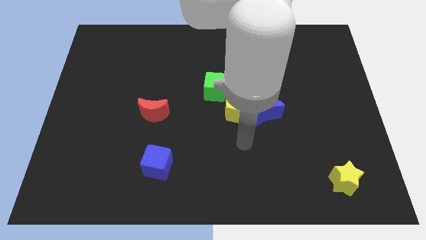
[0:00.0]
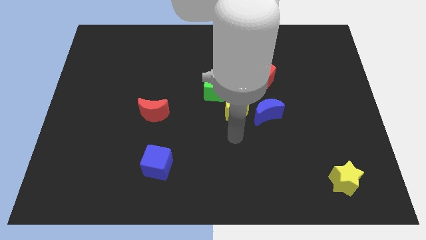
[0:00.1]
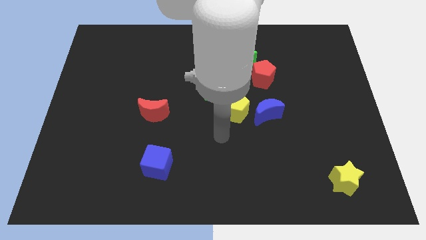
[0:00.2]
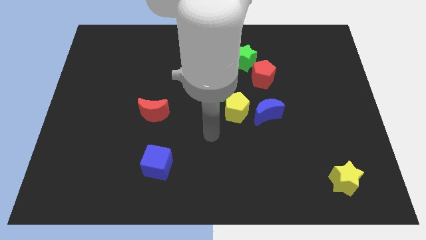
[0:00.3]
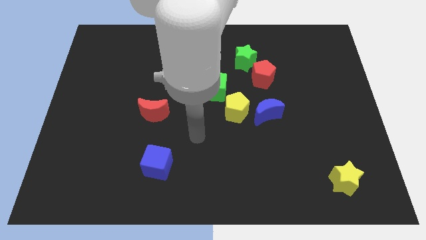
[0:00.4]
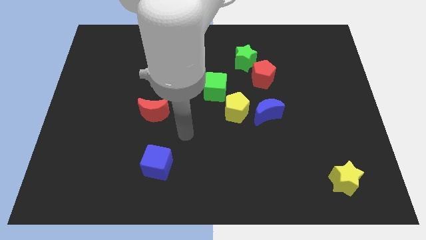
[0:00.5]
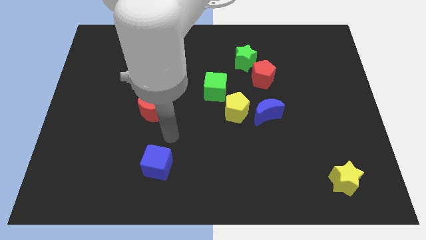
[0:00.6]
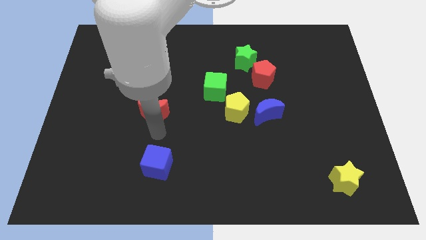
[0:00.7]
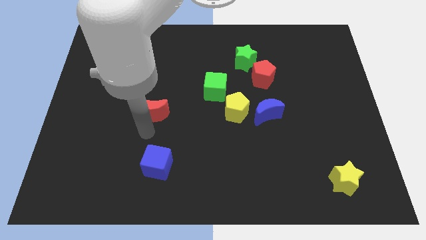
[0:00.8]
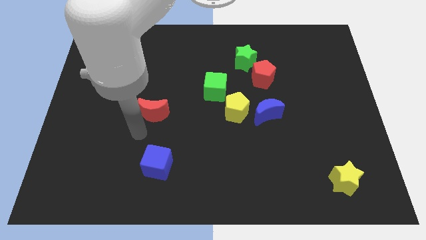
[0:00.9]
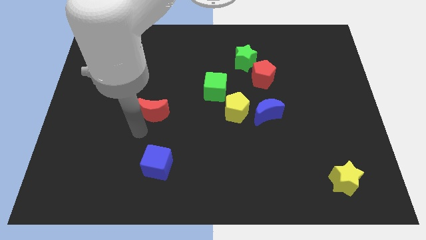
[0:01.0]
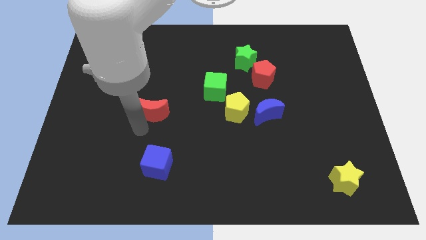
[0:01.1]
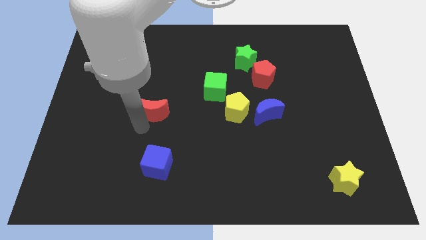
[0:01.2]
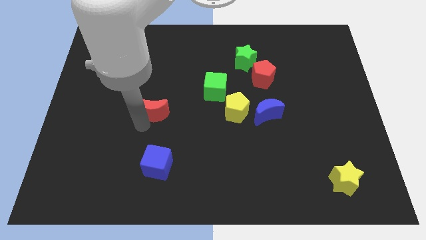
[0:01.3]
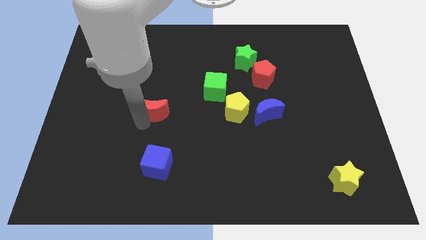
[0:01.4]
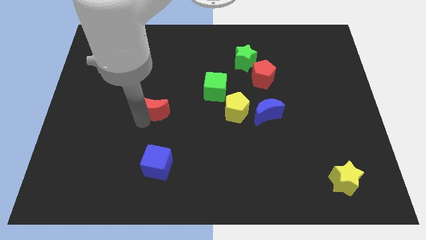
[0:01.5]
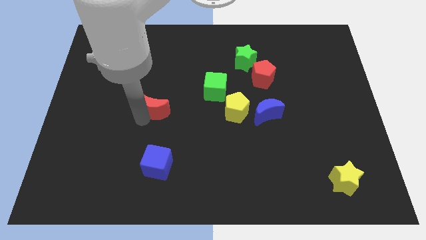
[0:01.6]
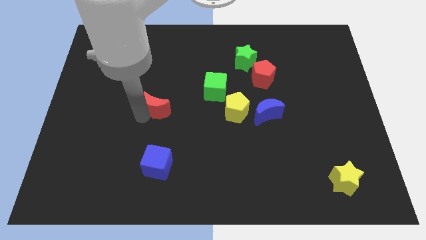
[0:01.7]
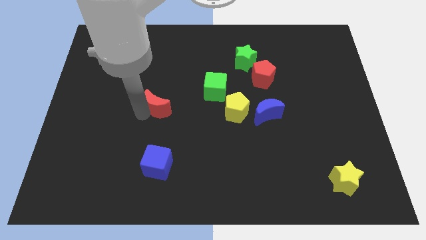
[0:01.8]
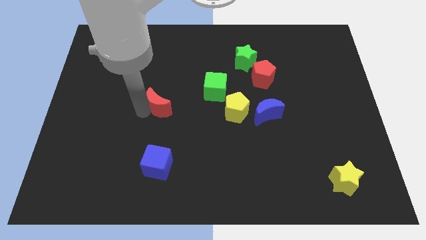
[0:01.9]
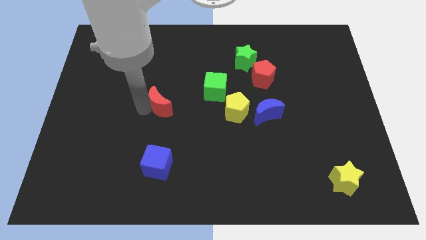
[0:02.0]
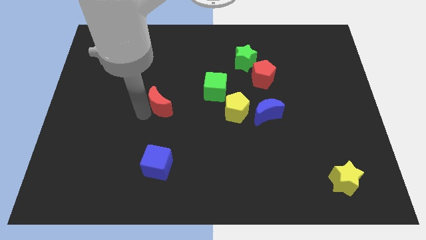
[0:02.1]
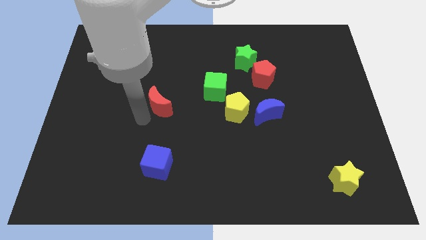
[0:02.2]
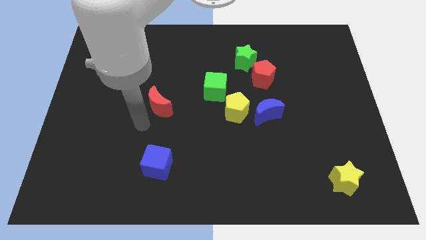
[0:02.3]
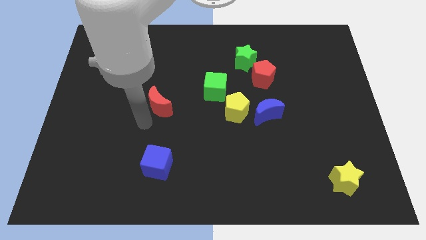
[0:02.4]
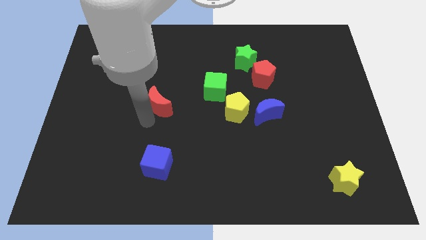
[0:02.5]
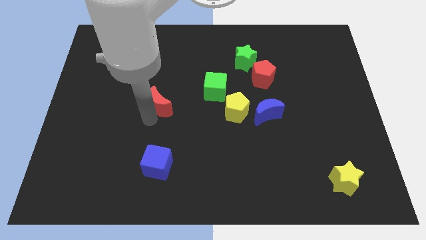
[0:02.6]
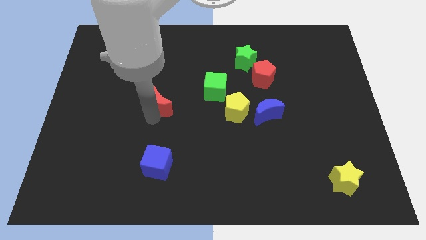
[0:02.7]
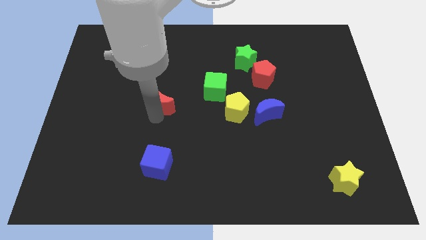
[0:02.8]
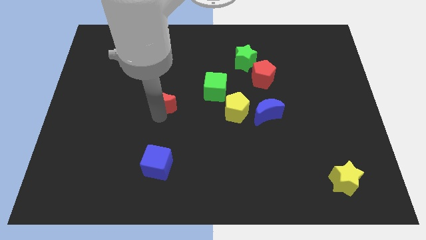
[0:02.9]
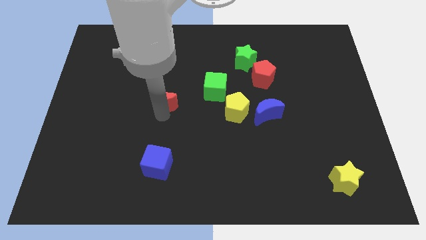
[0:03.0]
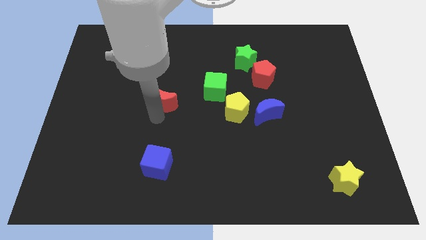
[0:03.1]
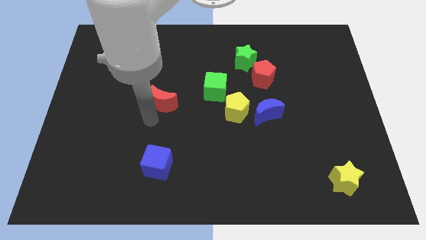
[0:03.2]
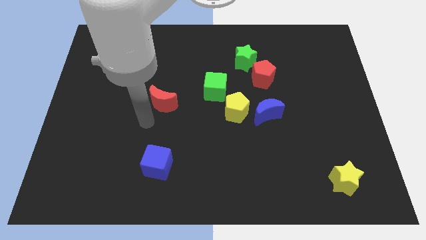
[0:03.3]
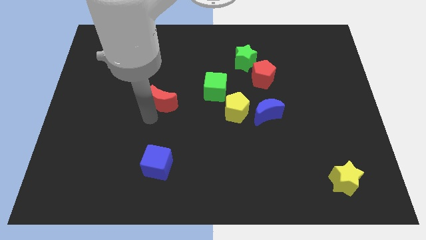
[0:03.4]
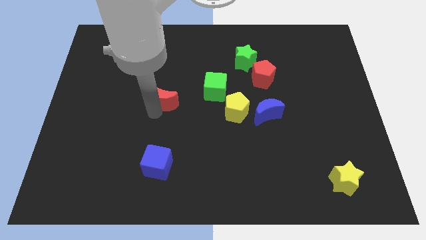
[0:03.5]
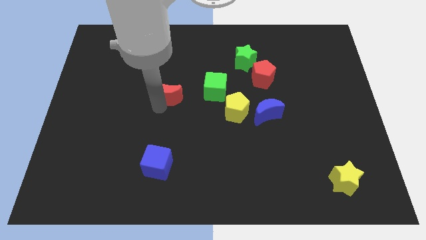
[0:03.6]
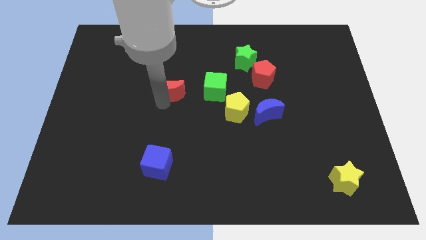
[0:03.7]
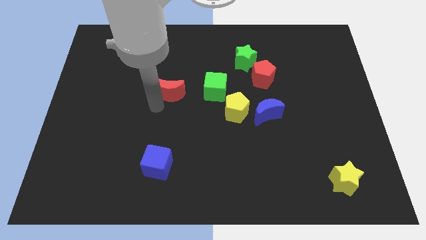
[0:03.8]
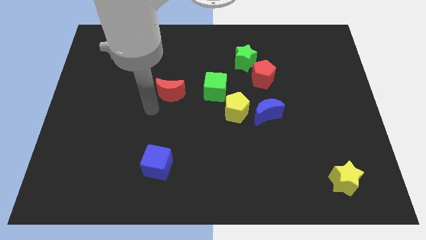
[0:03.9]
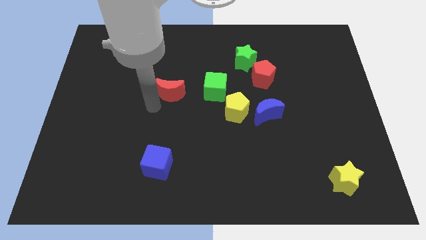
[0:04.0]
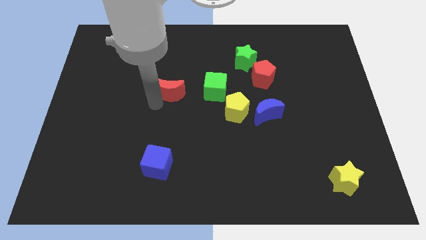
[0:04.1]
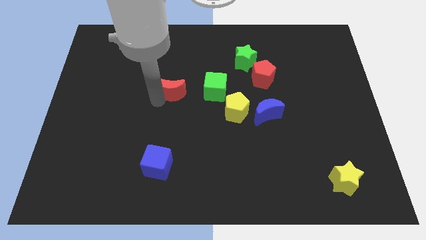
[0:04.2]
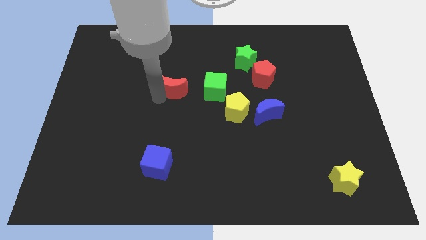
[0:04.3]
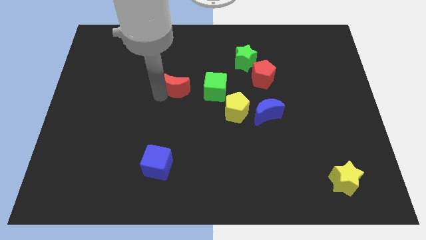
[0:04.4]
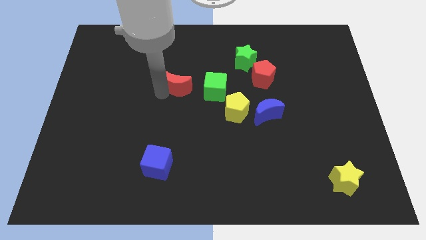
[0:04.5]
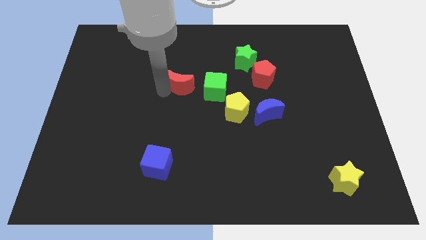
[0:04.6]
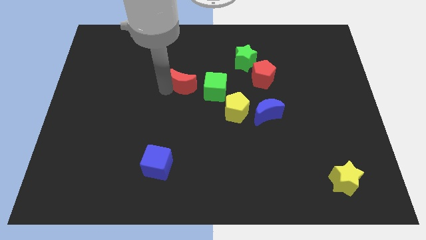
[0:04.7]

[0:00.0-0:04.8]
put the red moon diagonally up and to the left of the green cube

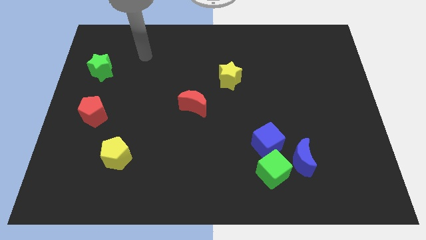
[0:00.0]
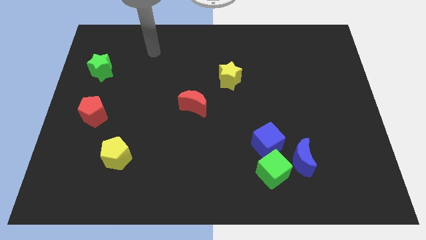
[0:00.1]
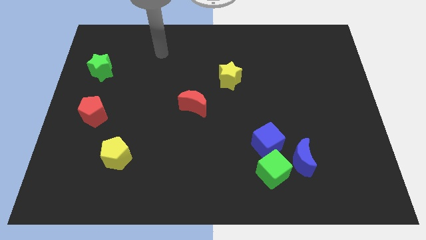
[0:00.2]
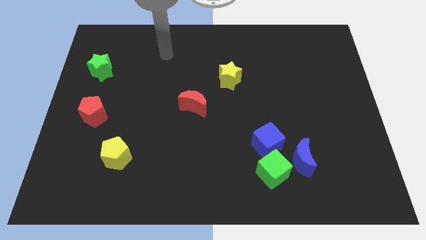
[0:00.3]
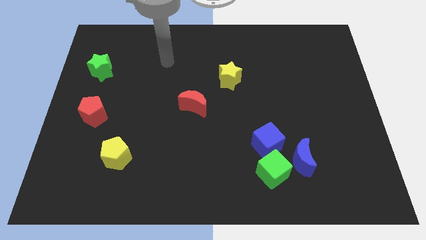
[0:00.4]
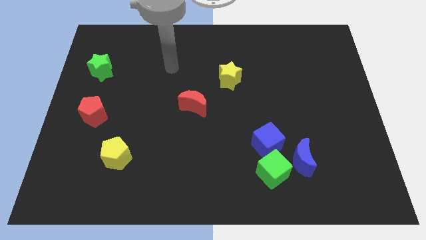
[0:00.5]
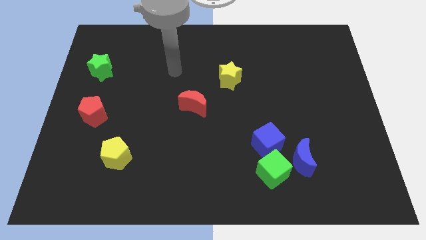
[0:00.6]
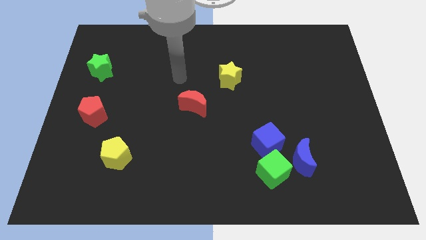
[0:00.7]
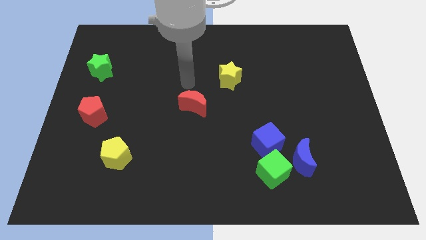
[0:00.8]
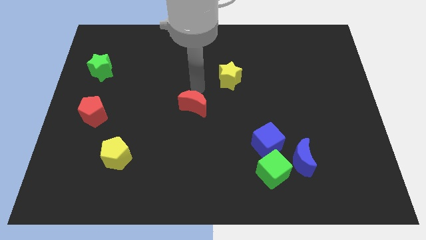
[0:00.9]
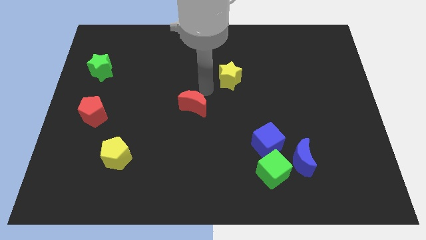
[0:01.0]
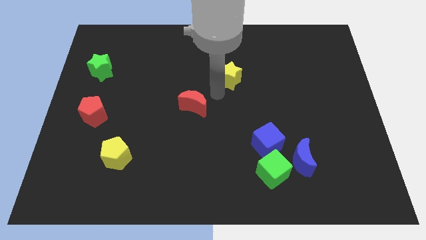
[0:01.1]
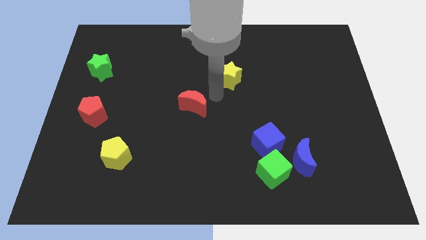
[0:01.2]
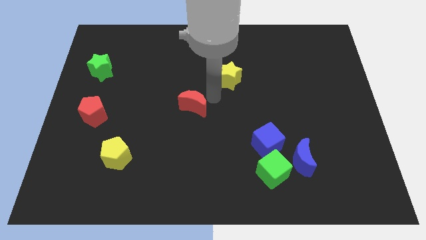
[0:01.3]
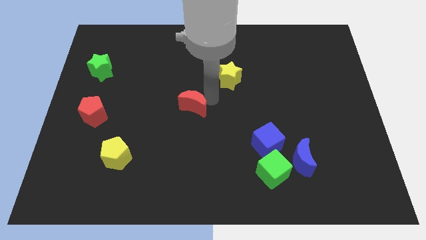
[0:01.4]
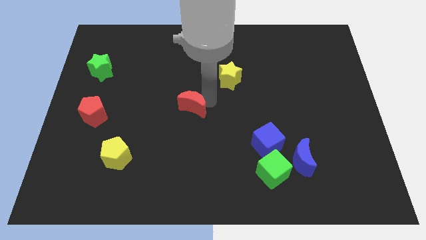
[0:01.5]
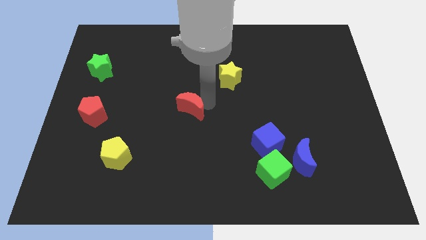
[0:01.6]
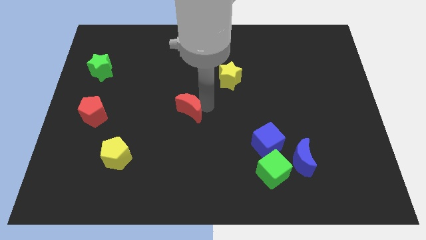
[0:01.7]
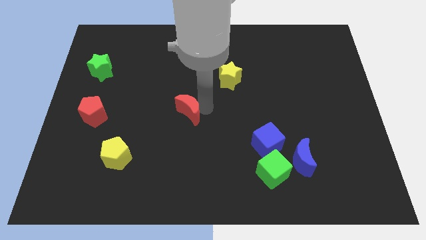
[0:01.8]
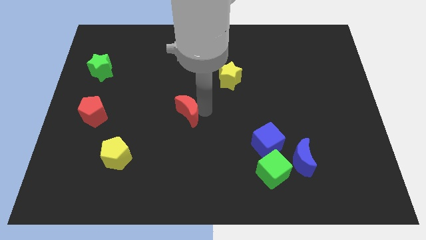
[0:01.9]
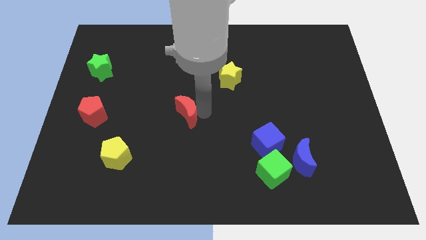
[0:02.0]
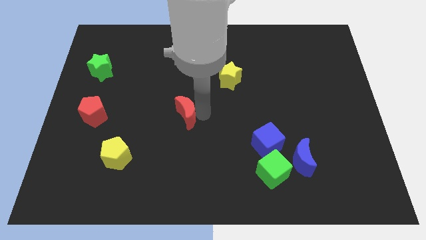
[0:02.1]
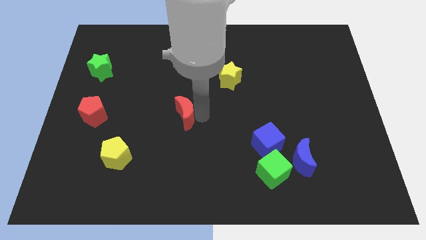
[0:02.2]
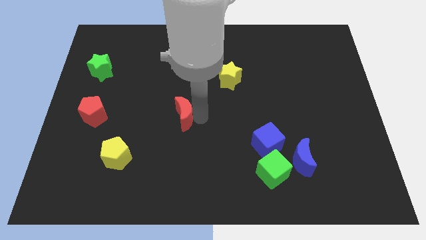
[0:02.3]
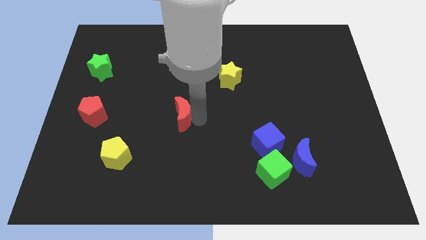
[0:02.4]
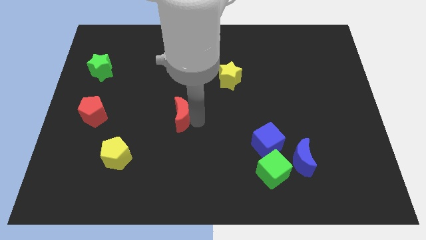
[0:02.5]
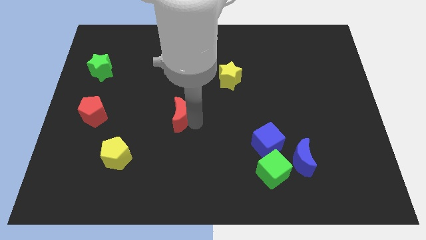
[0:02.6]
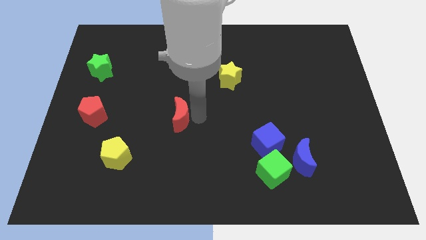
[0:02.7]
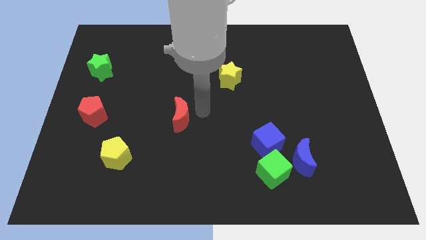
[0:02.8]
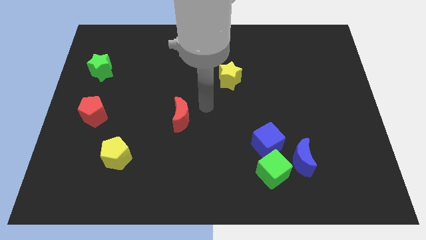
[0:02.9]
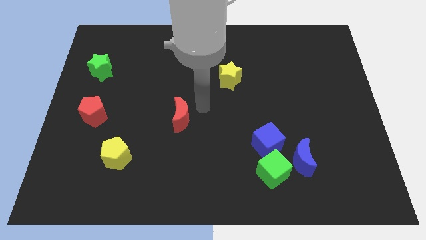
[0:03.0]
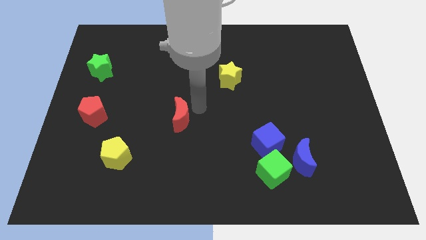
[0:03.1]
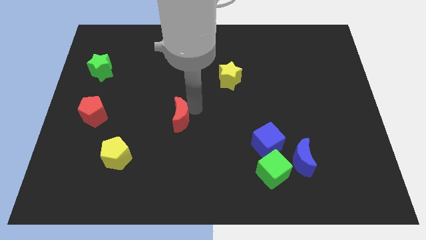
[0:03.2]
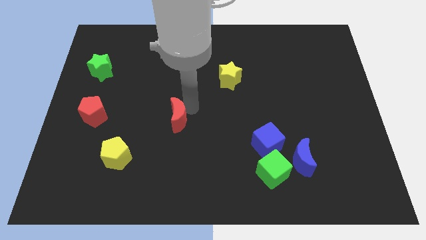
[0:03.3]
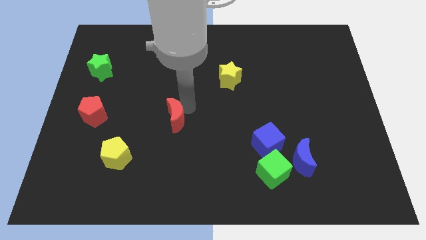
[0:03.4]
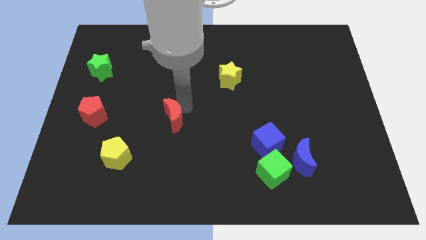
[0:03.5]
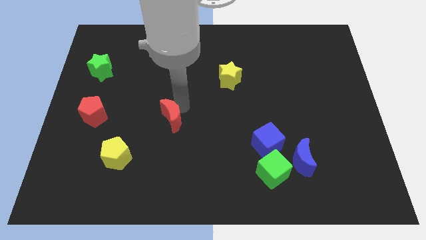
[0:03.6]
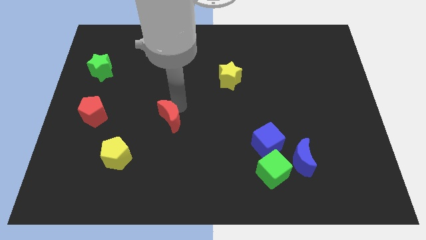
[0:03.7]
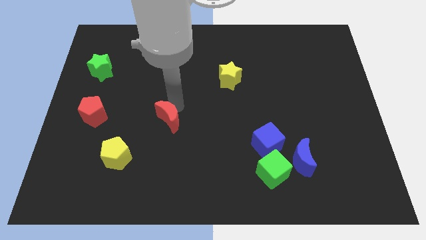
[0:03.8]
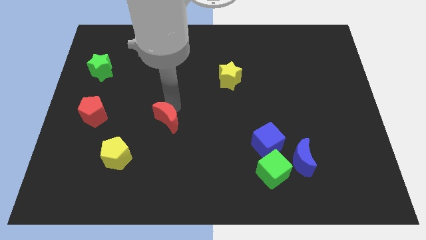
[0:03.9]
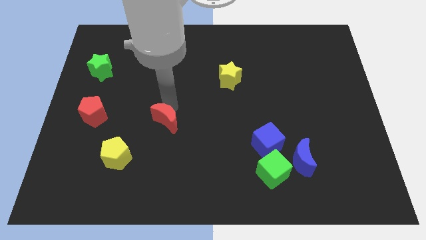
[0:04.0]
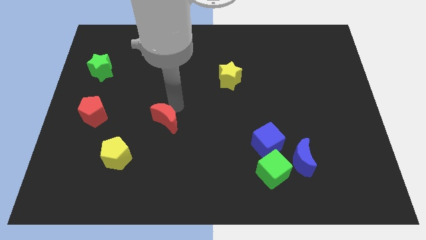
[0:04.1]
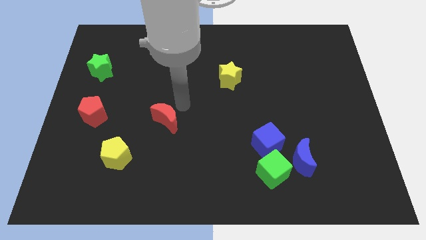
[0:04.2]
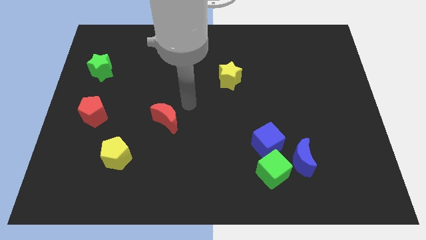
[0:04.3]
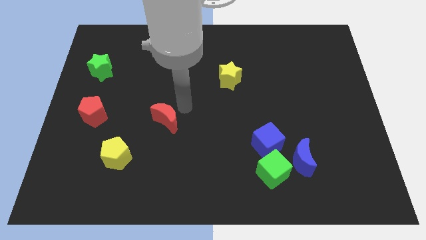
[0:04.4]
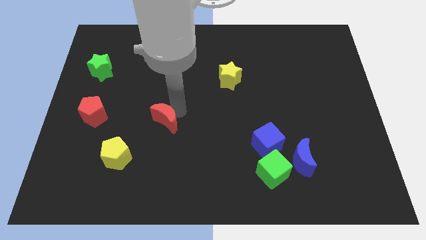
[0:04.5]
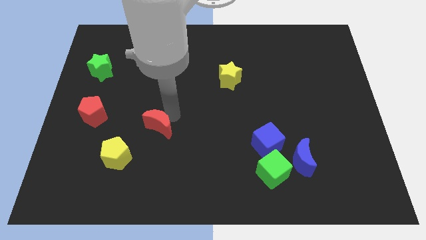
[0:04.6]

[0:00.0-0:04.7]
slide the red moon diagonally up and to the right of the yellow pentagon
